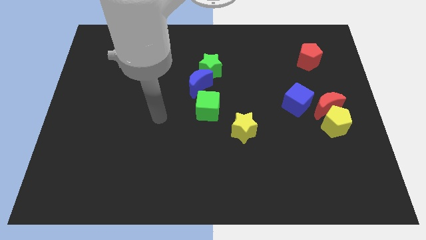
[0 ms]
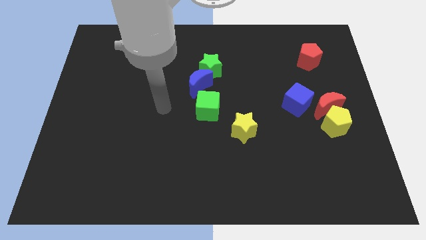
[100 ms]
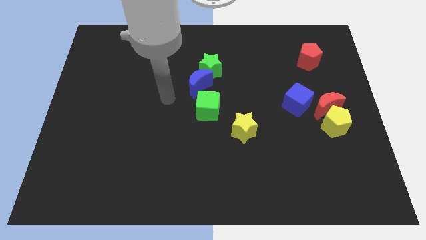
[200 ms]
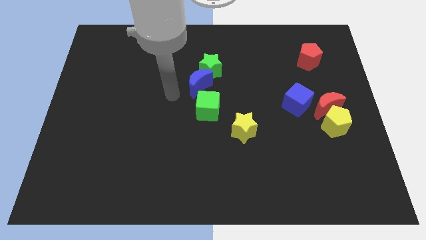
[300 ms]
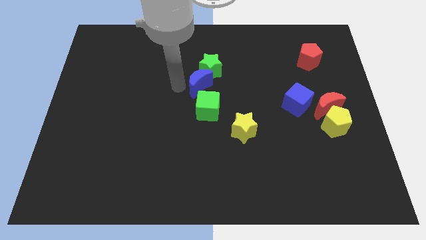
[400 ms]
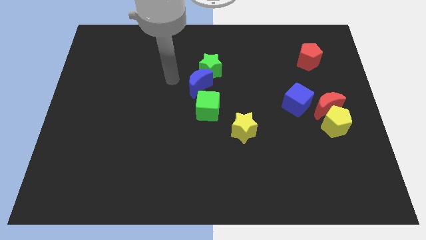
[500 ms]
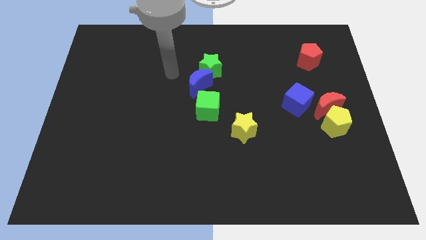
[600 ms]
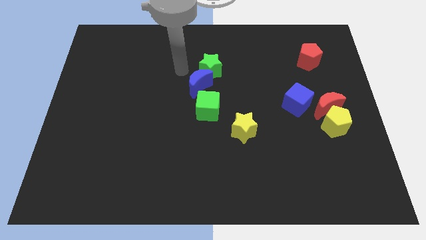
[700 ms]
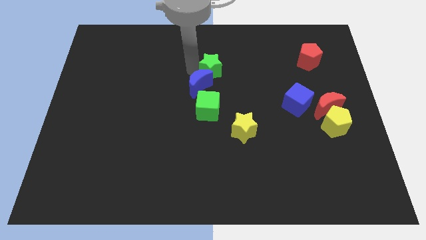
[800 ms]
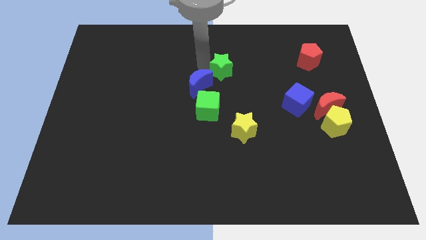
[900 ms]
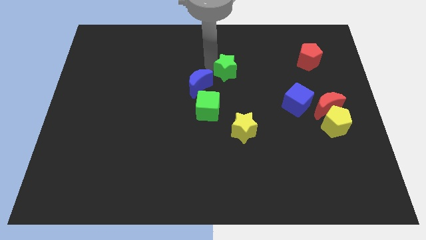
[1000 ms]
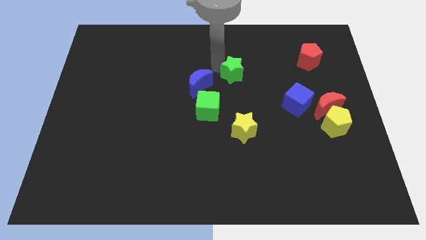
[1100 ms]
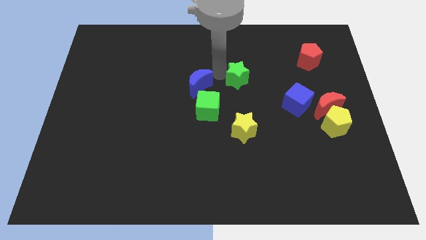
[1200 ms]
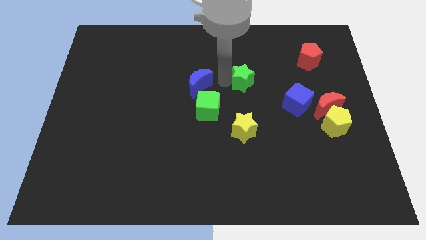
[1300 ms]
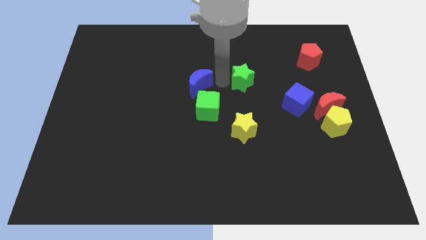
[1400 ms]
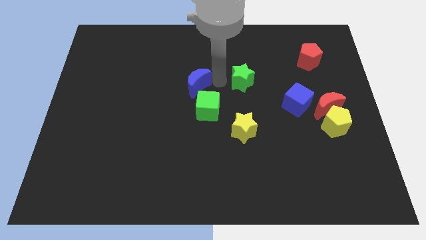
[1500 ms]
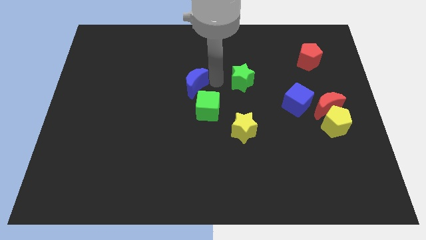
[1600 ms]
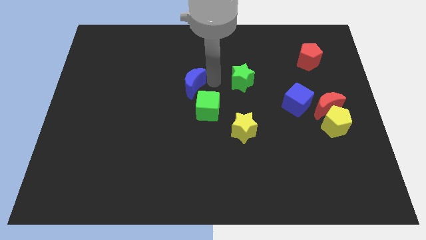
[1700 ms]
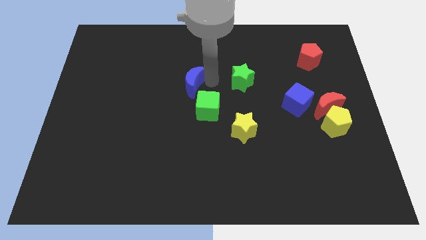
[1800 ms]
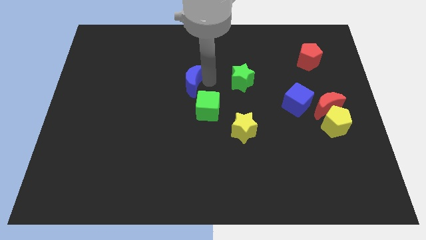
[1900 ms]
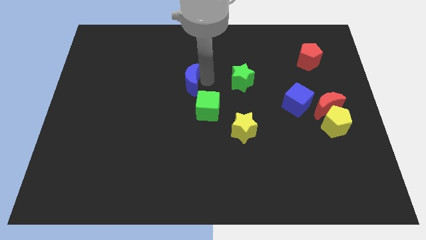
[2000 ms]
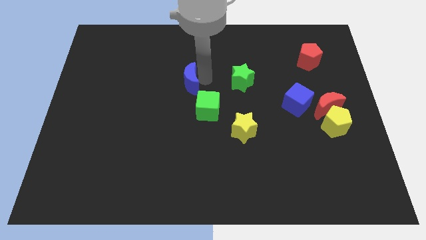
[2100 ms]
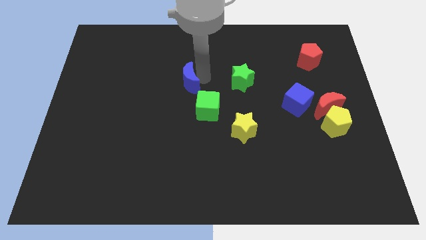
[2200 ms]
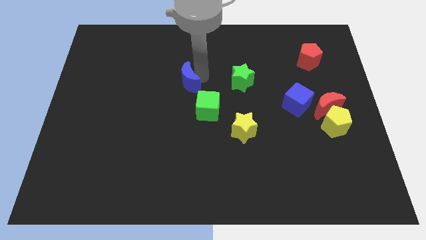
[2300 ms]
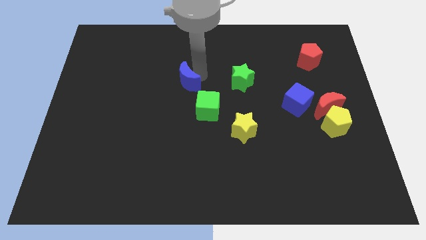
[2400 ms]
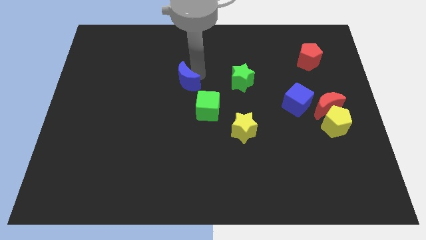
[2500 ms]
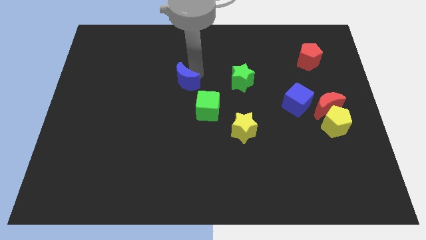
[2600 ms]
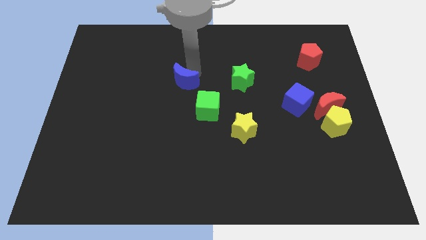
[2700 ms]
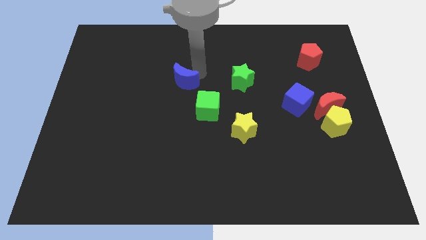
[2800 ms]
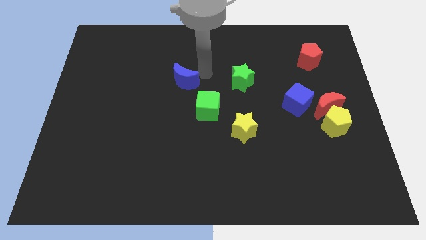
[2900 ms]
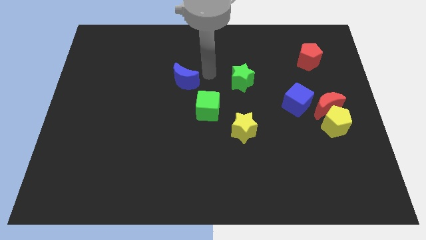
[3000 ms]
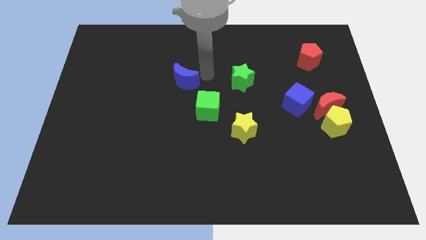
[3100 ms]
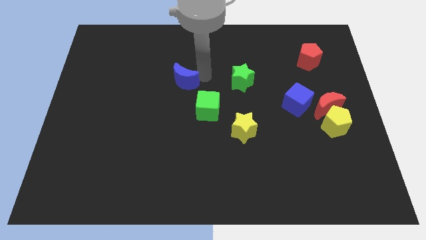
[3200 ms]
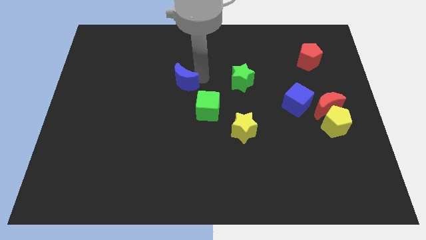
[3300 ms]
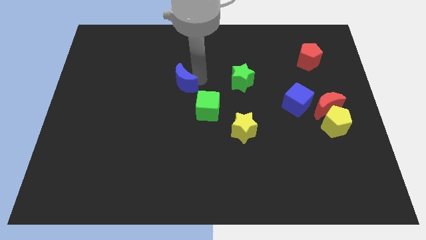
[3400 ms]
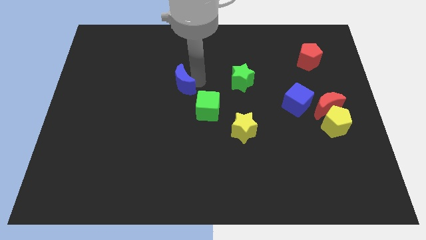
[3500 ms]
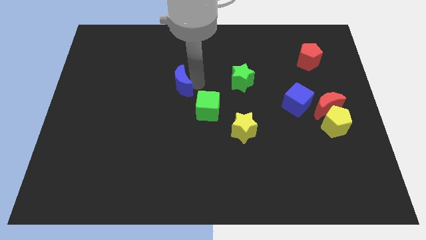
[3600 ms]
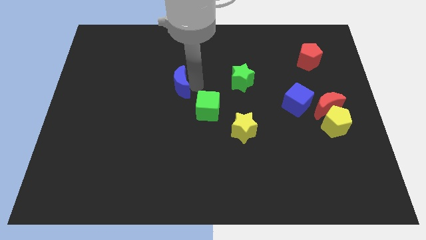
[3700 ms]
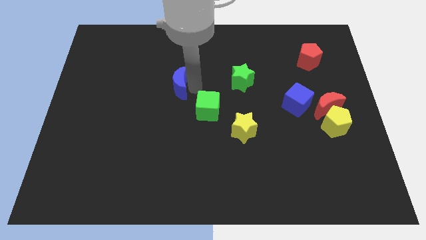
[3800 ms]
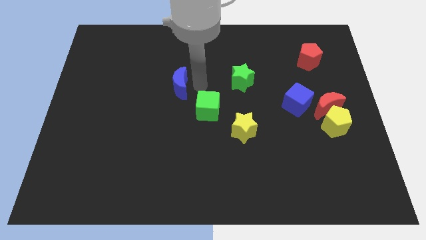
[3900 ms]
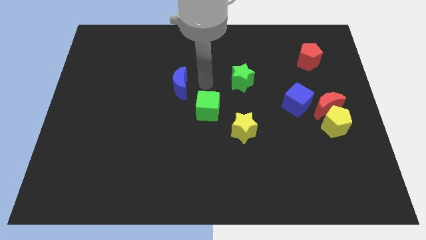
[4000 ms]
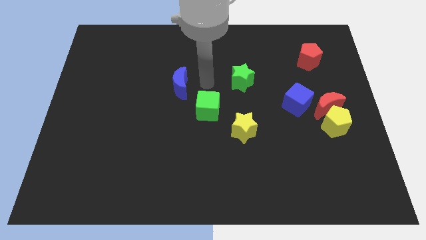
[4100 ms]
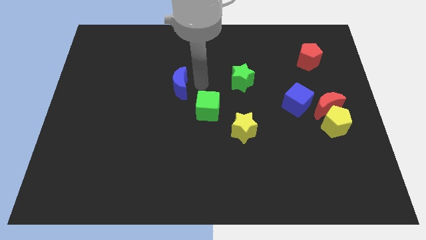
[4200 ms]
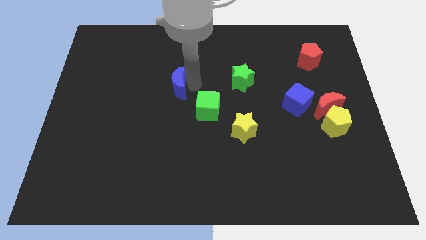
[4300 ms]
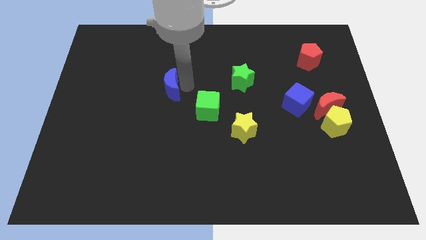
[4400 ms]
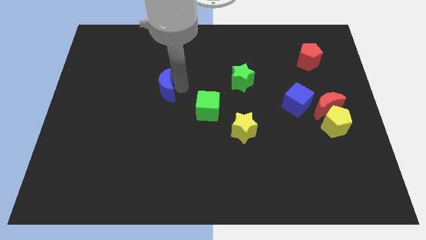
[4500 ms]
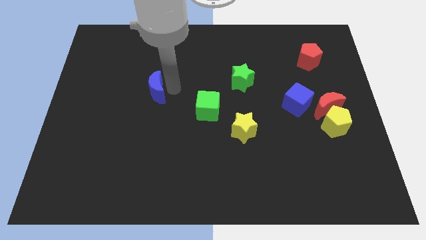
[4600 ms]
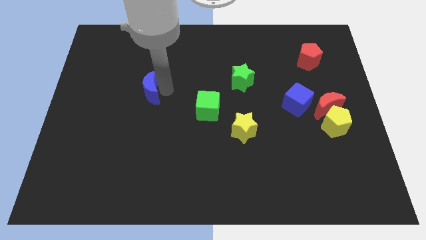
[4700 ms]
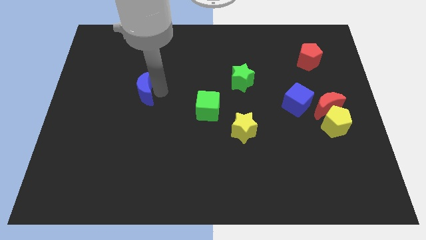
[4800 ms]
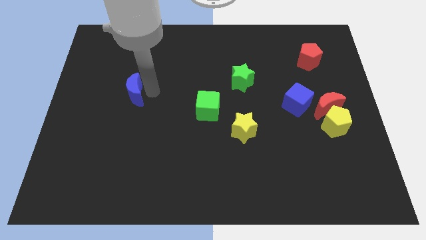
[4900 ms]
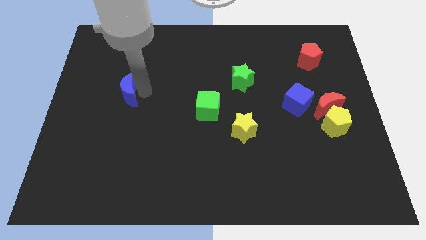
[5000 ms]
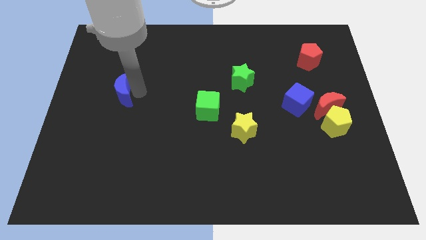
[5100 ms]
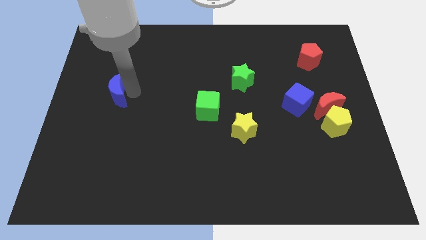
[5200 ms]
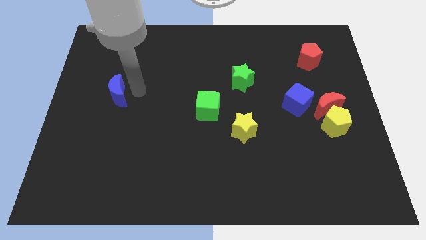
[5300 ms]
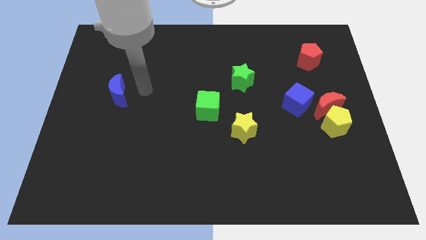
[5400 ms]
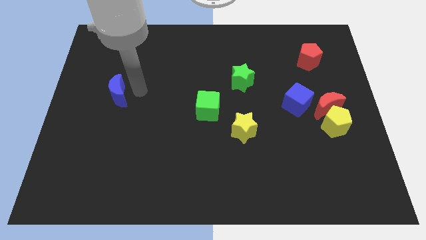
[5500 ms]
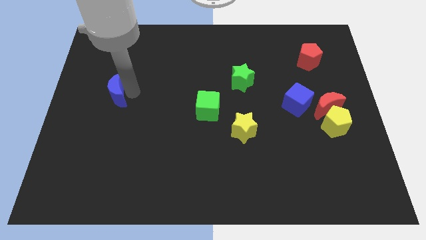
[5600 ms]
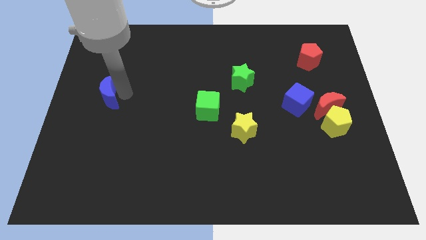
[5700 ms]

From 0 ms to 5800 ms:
slide the blue moon to the center left
